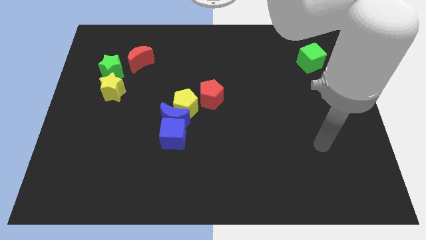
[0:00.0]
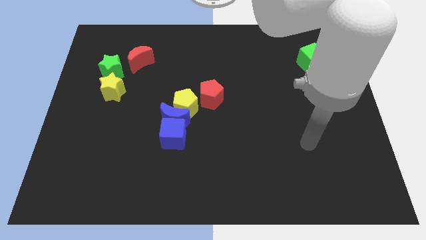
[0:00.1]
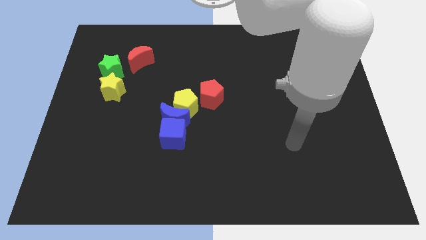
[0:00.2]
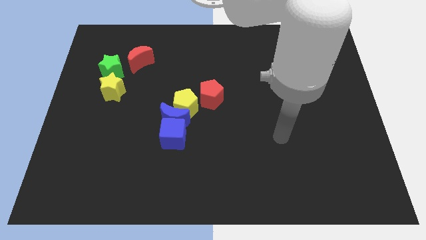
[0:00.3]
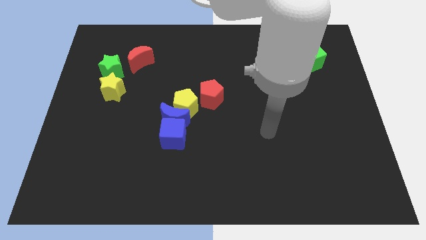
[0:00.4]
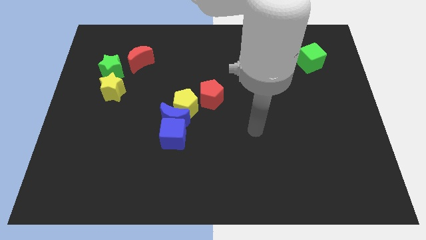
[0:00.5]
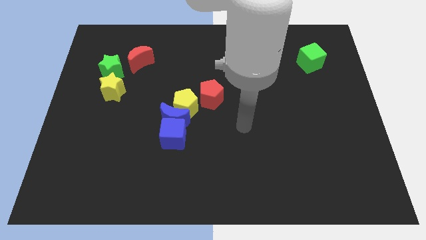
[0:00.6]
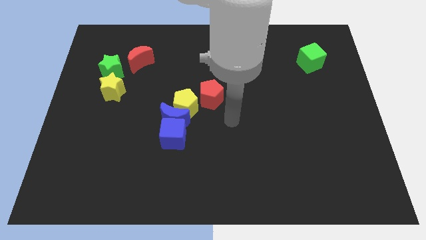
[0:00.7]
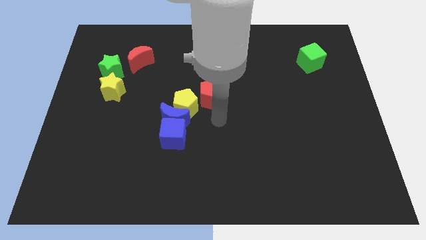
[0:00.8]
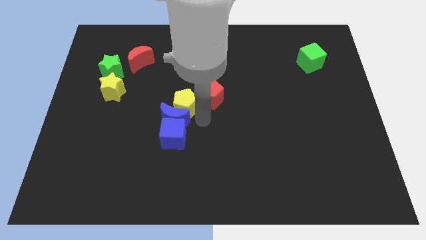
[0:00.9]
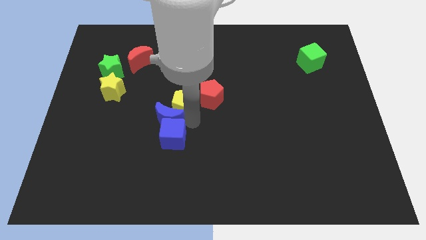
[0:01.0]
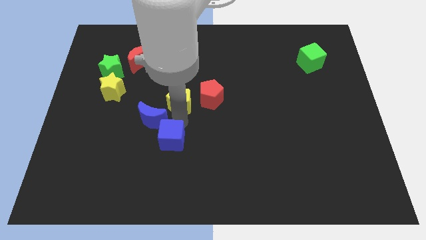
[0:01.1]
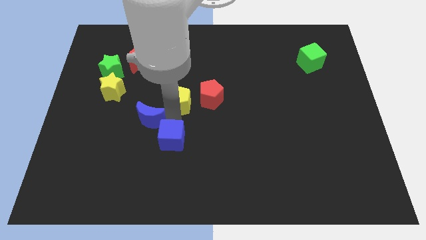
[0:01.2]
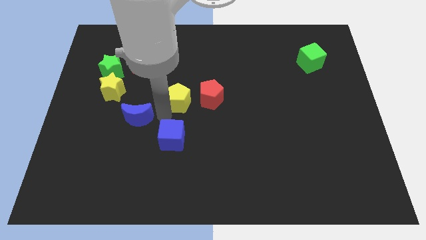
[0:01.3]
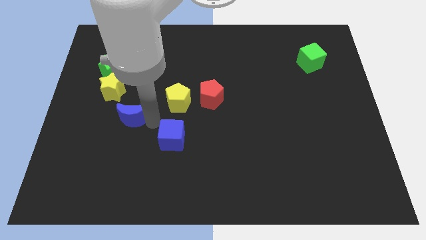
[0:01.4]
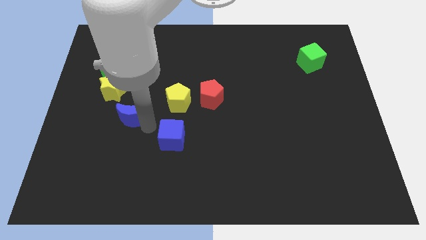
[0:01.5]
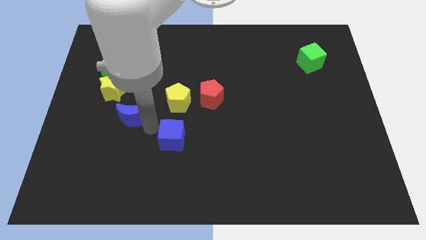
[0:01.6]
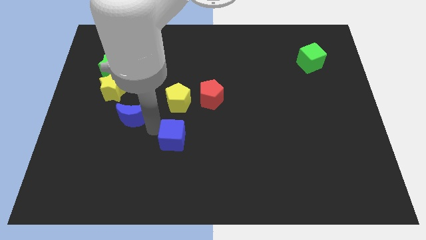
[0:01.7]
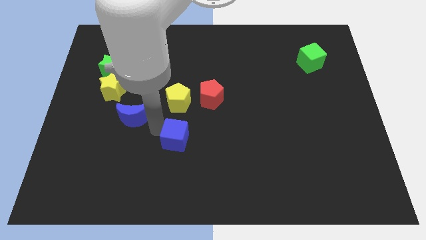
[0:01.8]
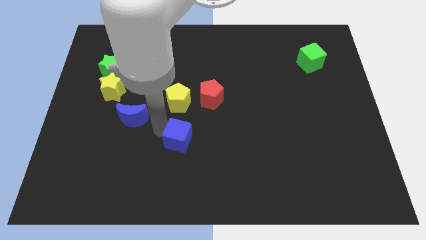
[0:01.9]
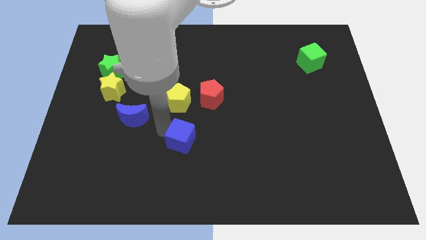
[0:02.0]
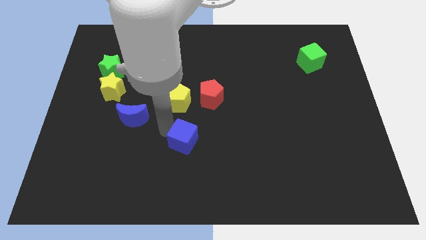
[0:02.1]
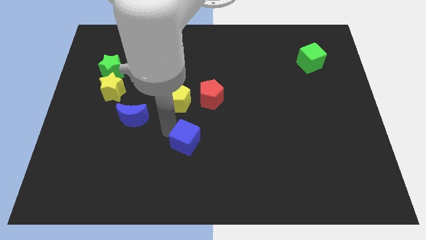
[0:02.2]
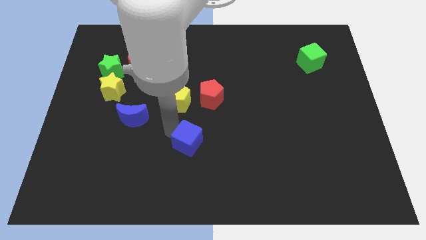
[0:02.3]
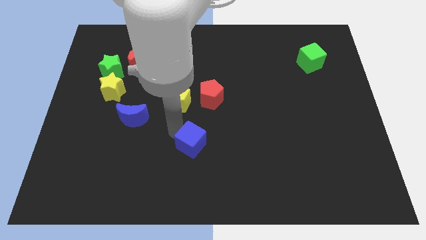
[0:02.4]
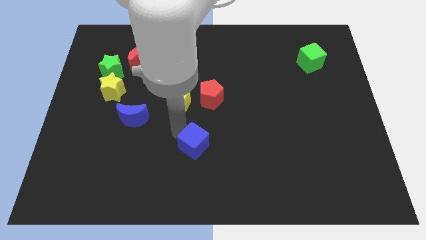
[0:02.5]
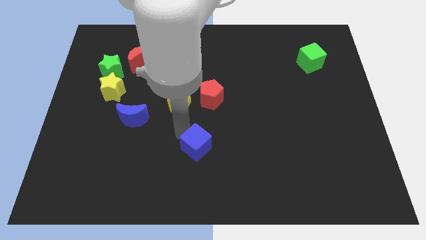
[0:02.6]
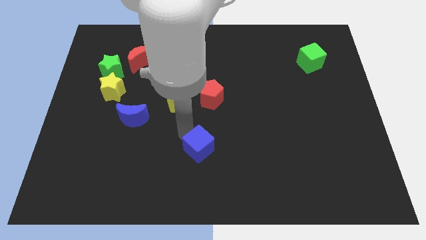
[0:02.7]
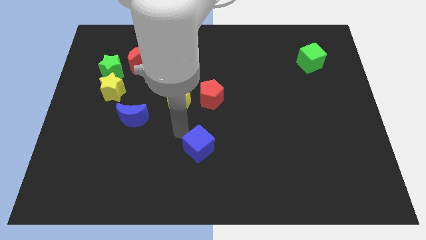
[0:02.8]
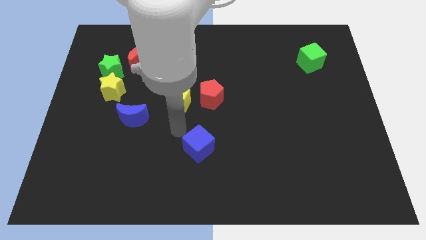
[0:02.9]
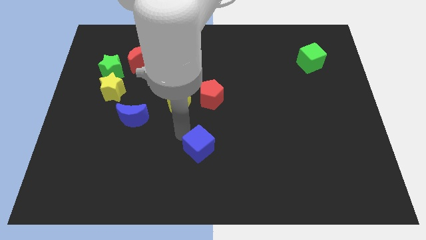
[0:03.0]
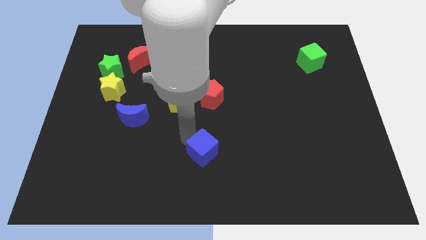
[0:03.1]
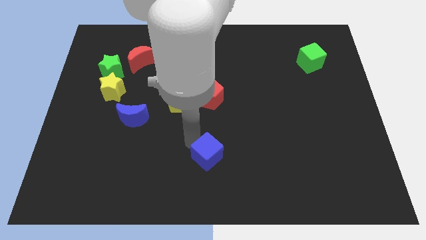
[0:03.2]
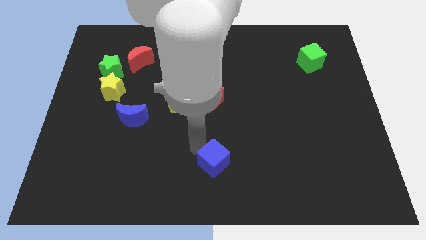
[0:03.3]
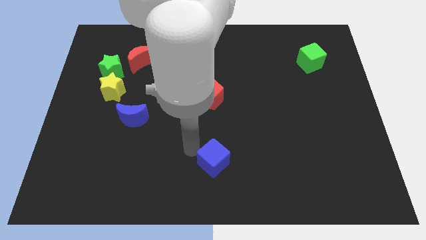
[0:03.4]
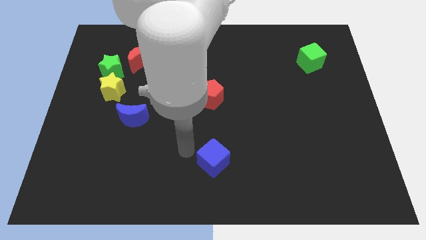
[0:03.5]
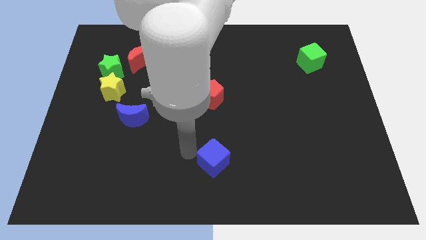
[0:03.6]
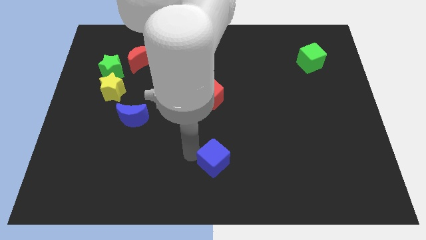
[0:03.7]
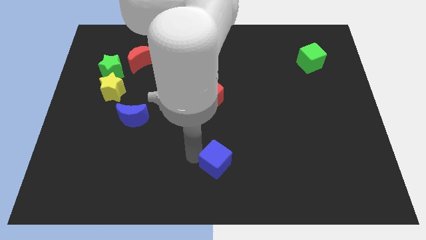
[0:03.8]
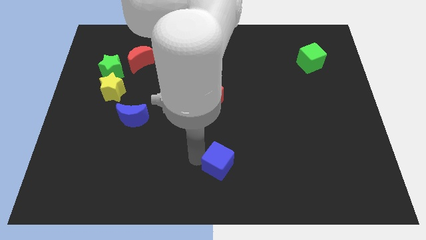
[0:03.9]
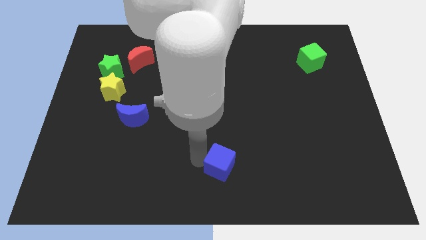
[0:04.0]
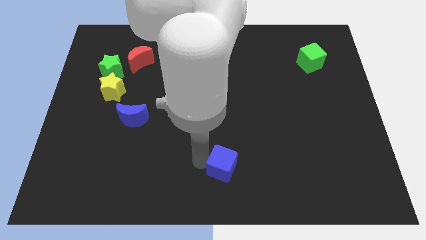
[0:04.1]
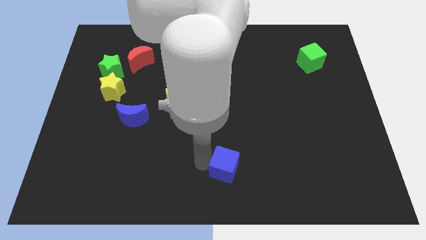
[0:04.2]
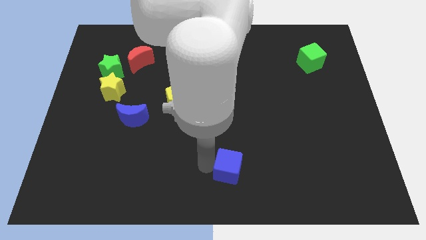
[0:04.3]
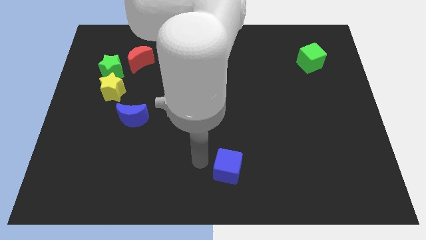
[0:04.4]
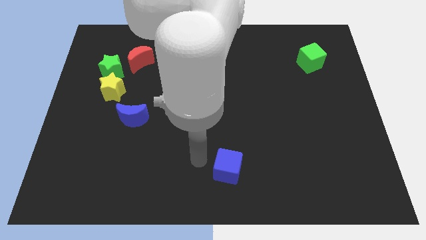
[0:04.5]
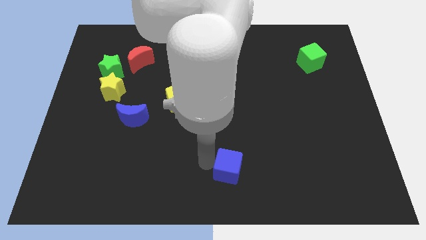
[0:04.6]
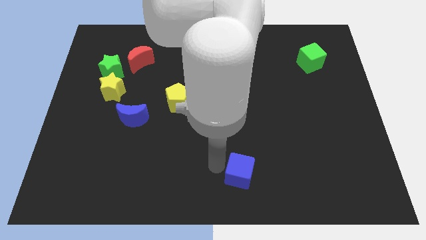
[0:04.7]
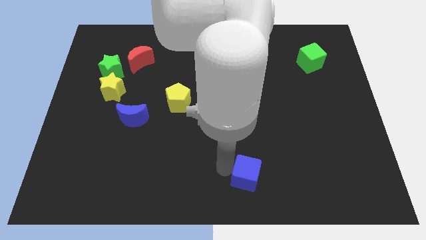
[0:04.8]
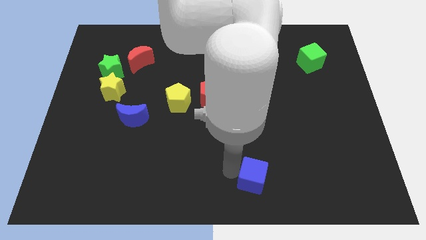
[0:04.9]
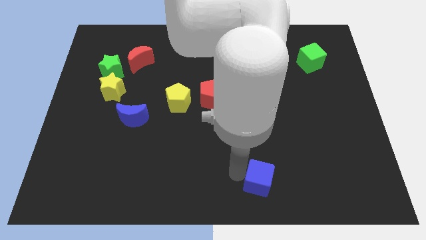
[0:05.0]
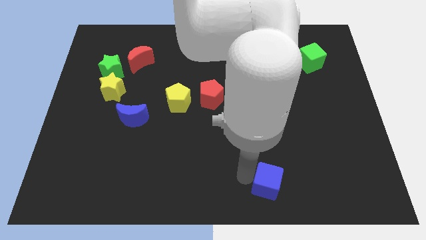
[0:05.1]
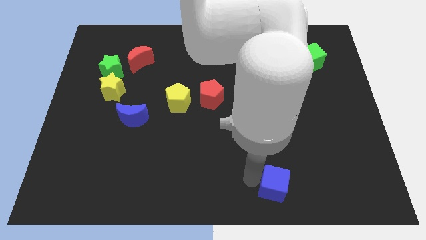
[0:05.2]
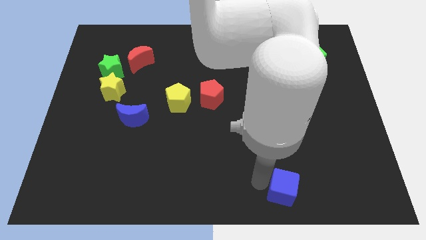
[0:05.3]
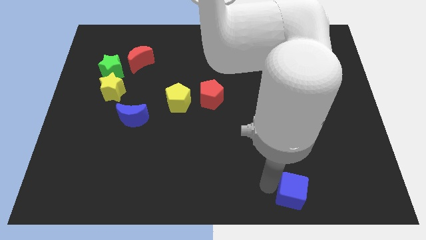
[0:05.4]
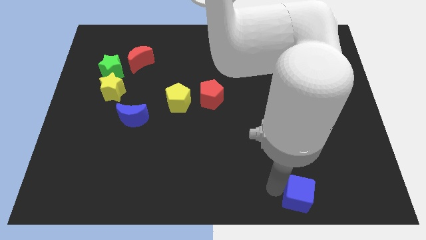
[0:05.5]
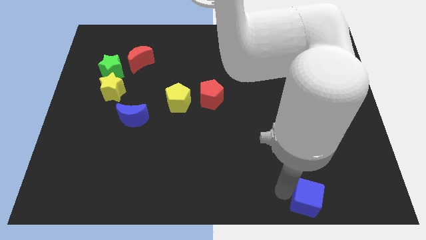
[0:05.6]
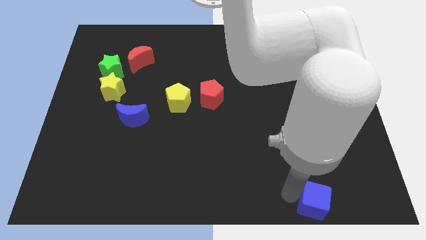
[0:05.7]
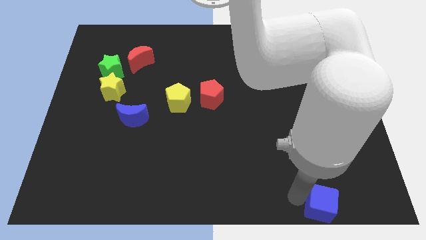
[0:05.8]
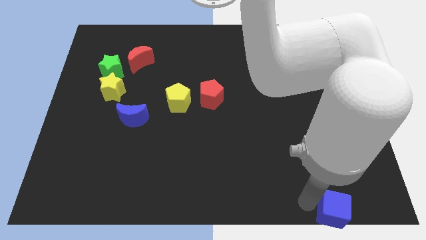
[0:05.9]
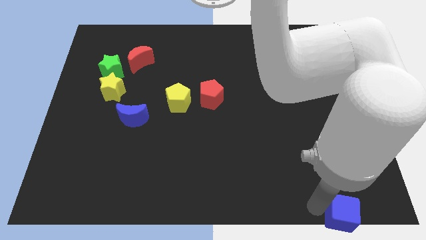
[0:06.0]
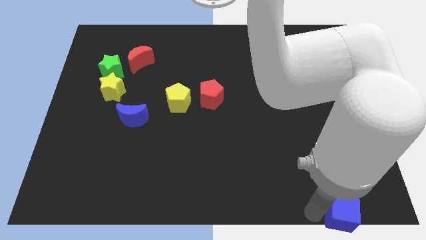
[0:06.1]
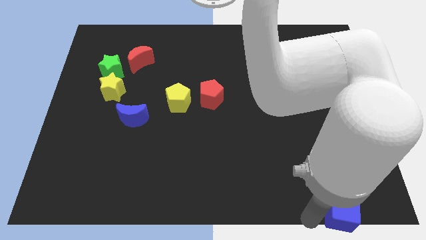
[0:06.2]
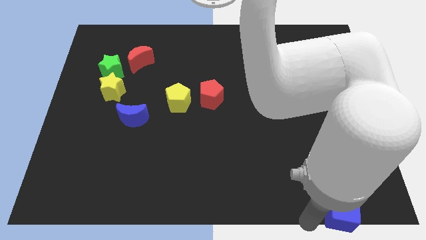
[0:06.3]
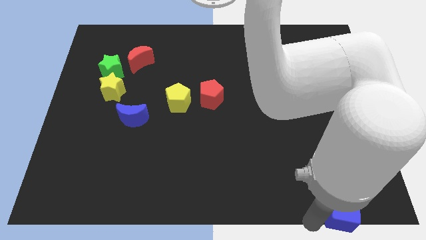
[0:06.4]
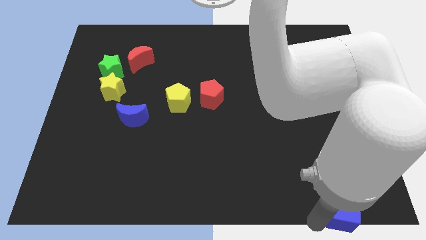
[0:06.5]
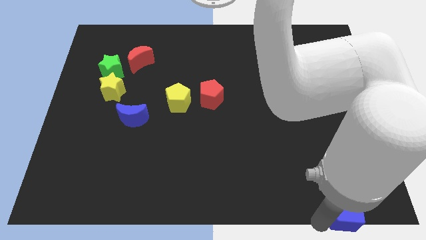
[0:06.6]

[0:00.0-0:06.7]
slide the blue cube to the bottom right of the board

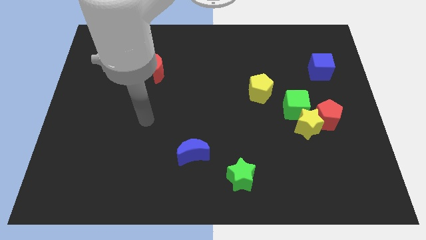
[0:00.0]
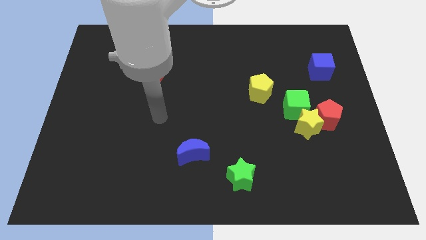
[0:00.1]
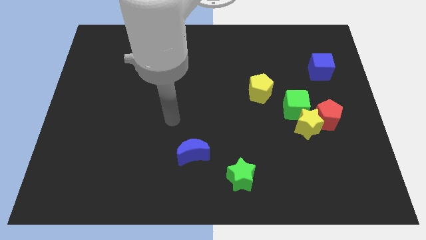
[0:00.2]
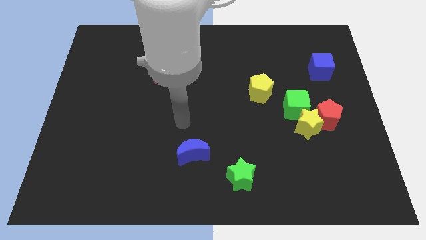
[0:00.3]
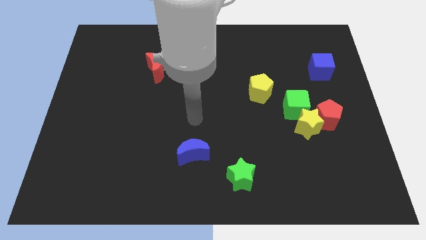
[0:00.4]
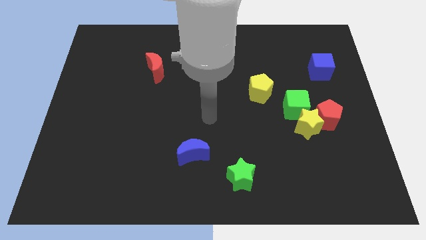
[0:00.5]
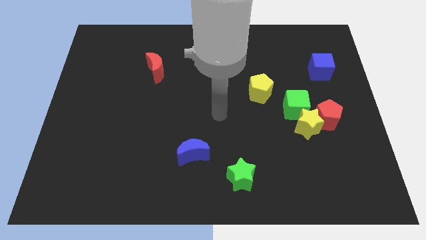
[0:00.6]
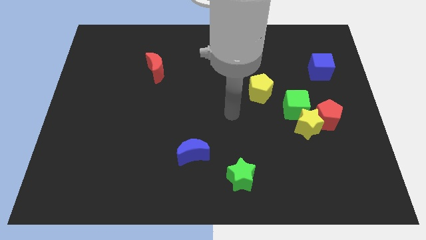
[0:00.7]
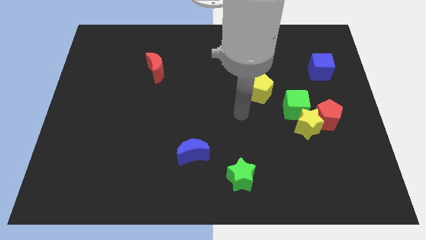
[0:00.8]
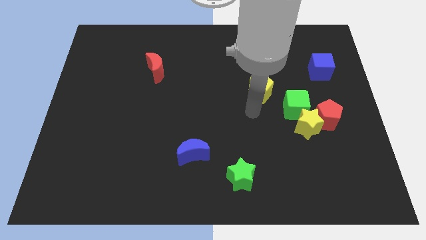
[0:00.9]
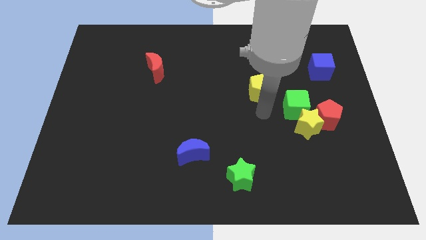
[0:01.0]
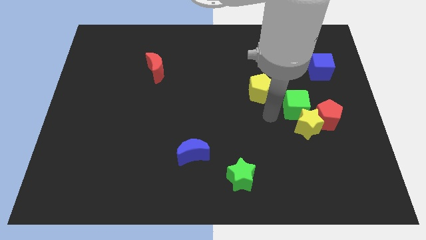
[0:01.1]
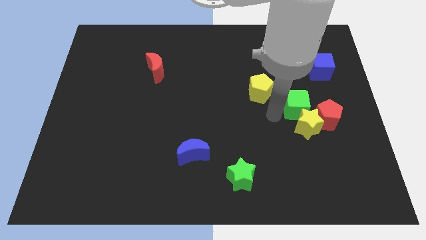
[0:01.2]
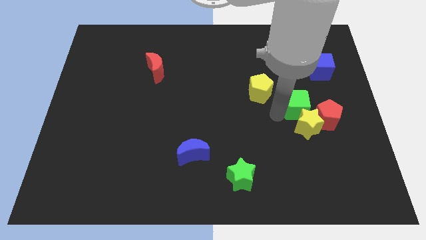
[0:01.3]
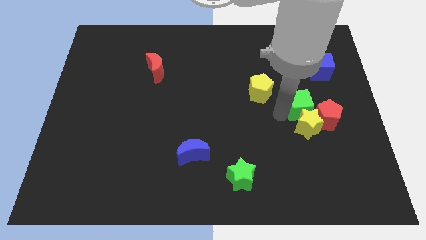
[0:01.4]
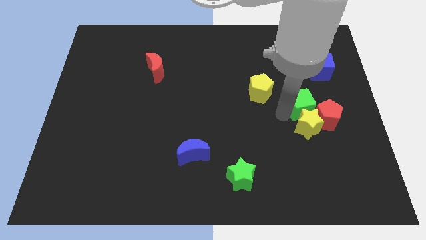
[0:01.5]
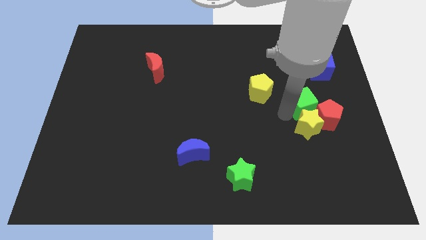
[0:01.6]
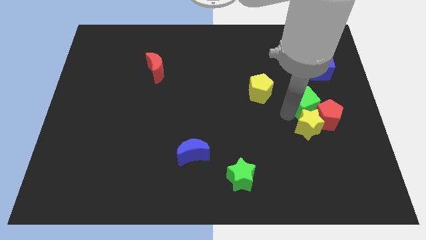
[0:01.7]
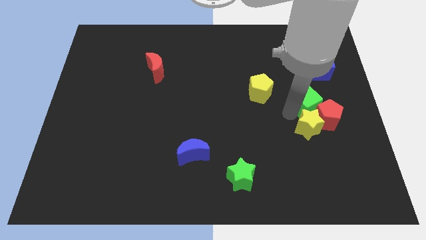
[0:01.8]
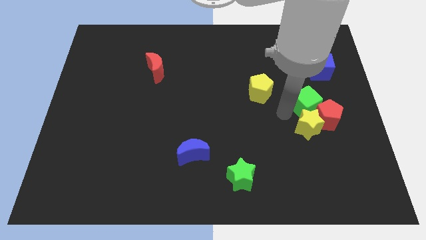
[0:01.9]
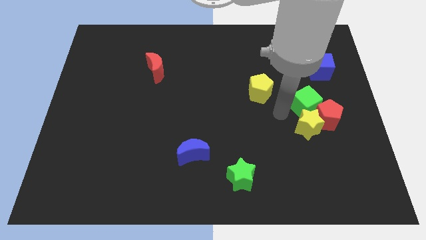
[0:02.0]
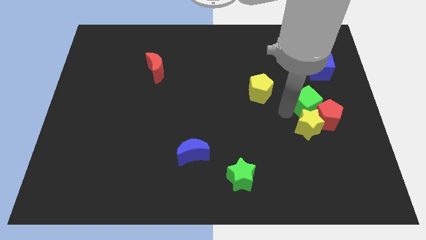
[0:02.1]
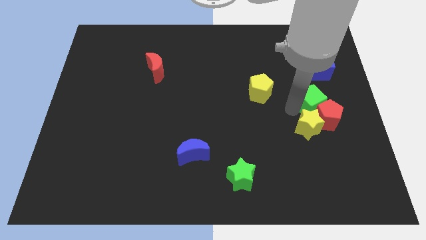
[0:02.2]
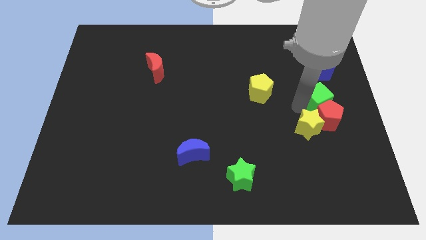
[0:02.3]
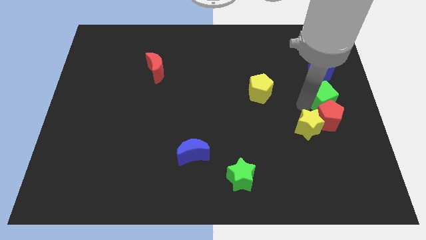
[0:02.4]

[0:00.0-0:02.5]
put the green cube to the center right
